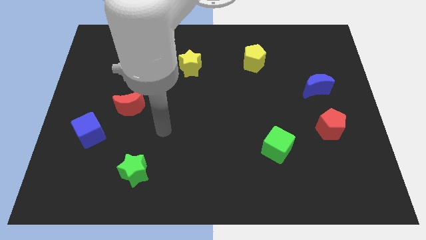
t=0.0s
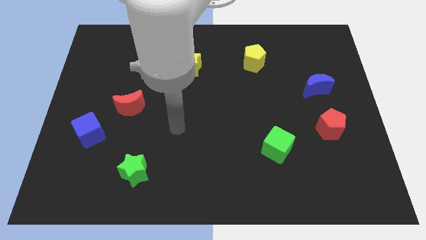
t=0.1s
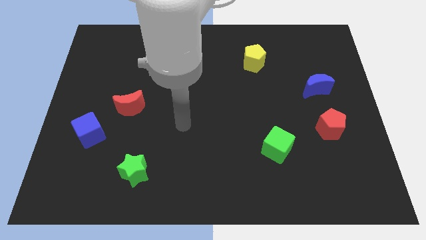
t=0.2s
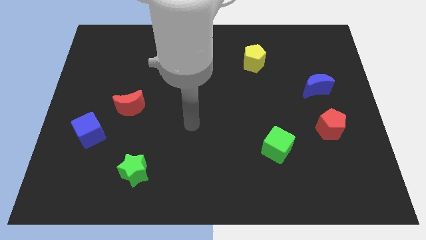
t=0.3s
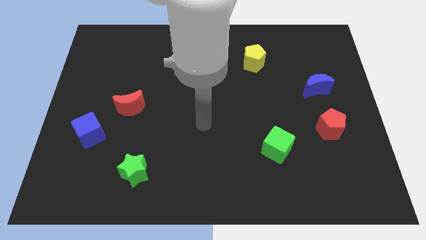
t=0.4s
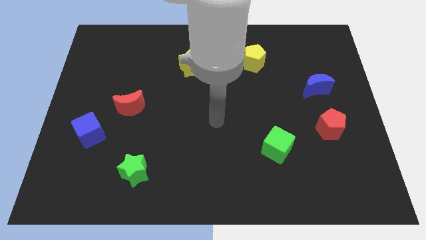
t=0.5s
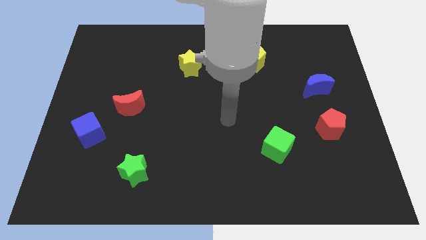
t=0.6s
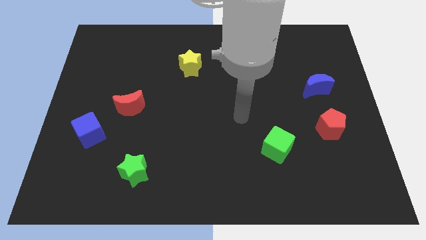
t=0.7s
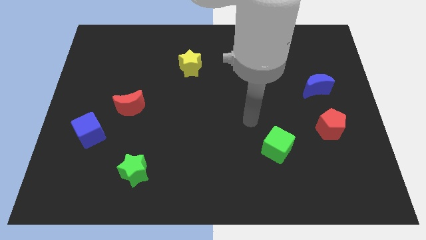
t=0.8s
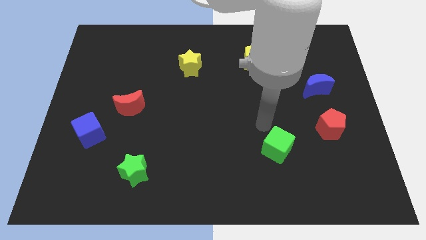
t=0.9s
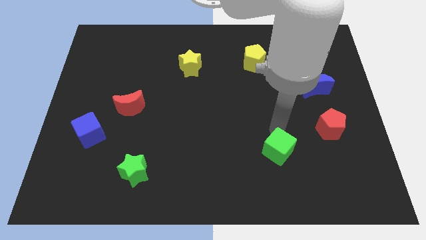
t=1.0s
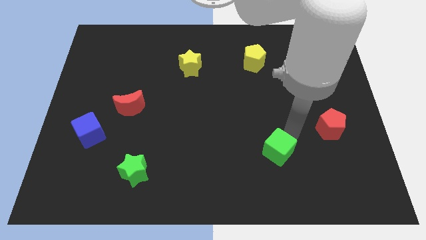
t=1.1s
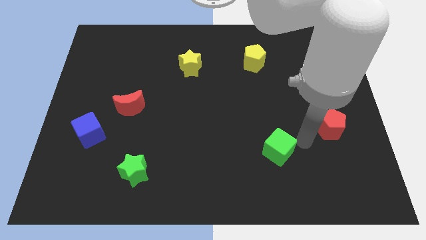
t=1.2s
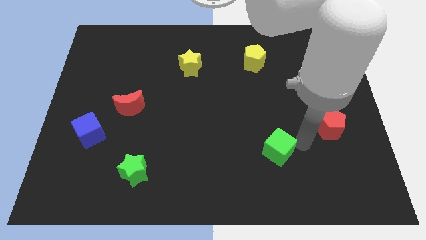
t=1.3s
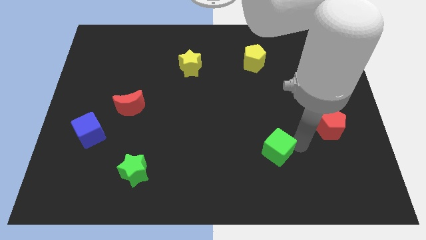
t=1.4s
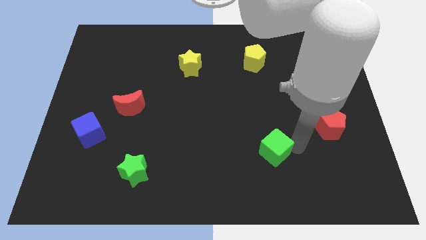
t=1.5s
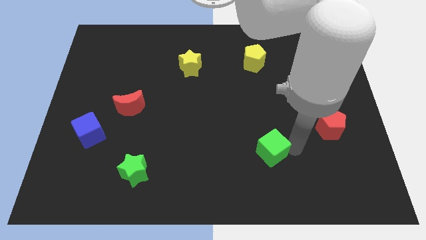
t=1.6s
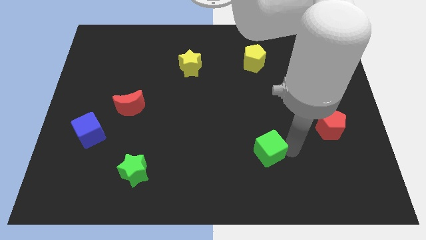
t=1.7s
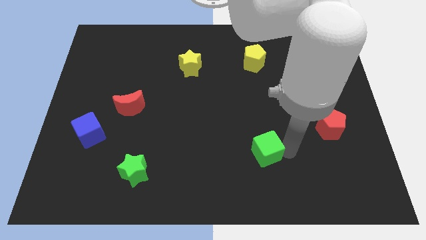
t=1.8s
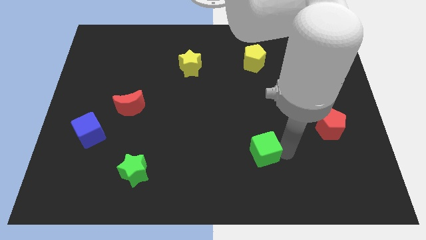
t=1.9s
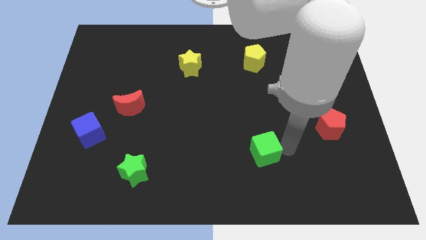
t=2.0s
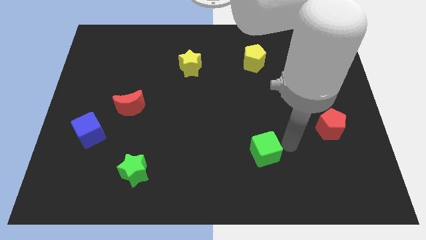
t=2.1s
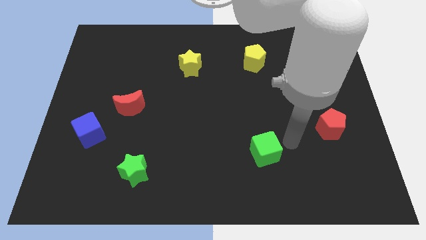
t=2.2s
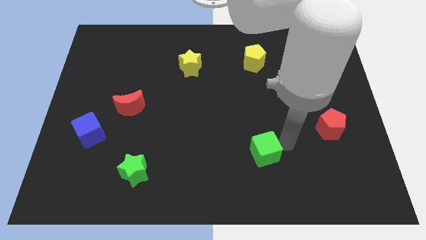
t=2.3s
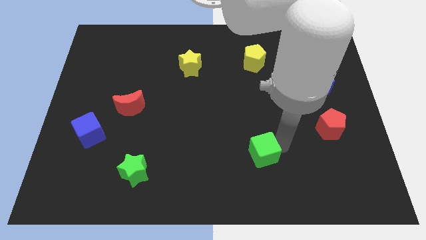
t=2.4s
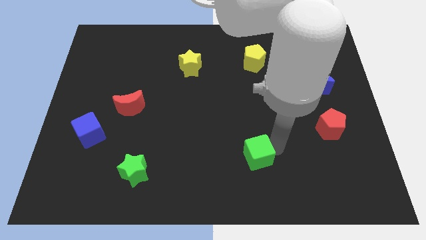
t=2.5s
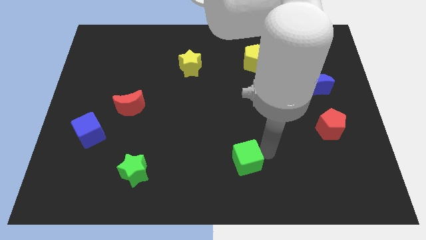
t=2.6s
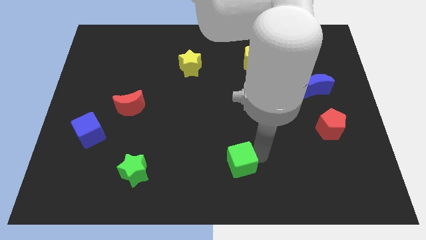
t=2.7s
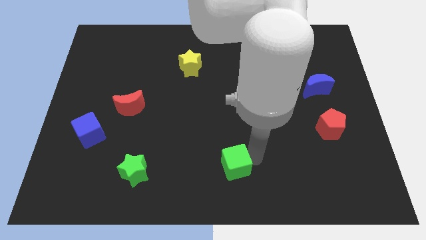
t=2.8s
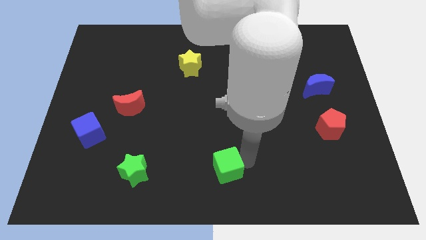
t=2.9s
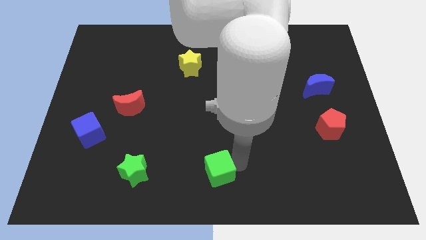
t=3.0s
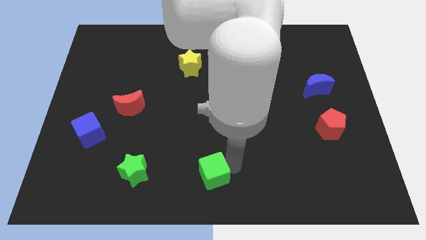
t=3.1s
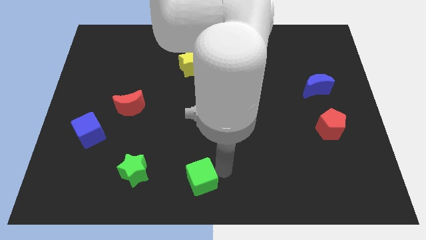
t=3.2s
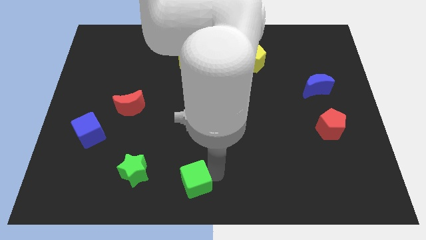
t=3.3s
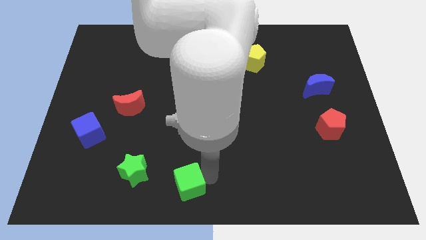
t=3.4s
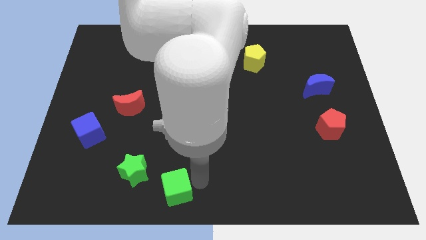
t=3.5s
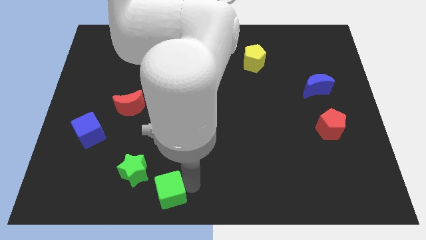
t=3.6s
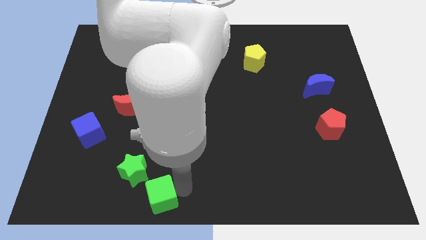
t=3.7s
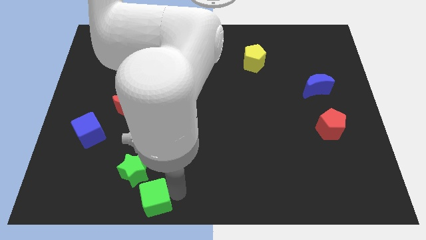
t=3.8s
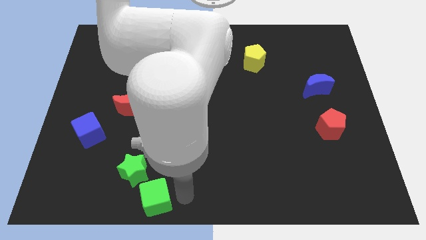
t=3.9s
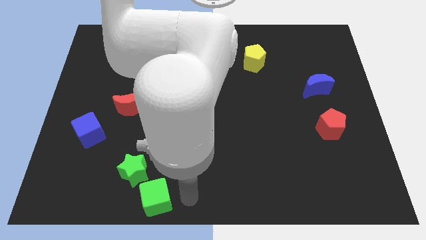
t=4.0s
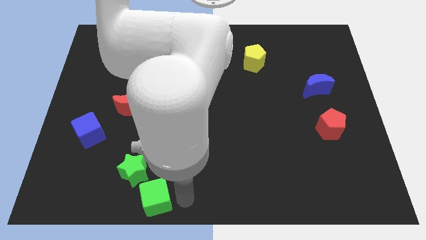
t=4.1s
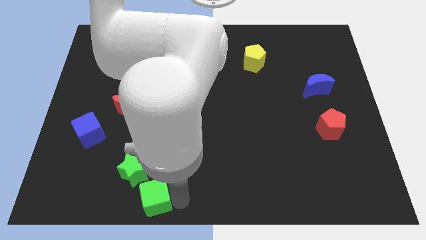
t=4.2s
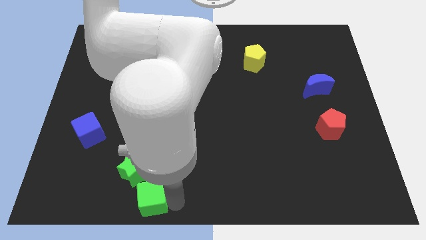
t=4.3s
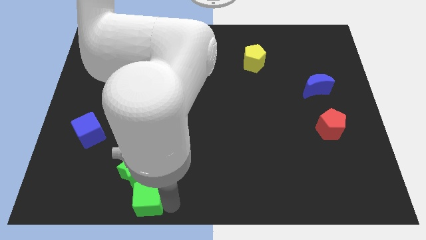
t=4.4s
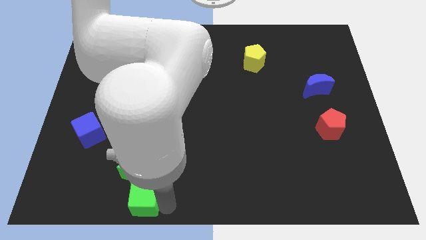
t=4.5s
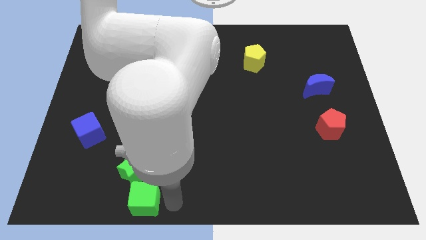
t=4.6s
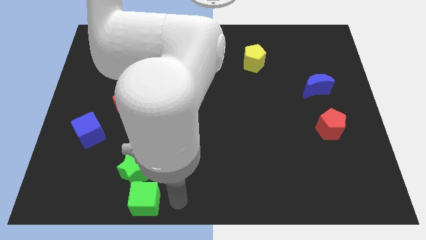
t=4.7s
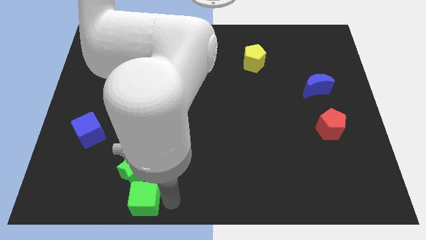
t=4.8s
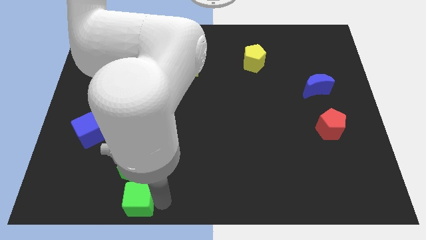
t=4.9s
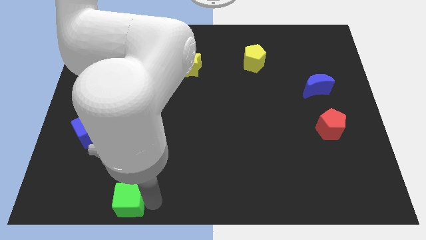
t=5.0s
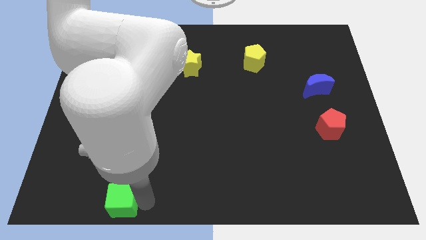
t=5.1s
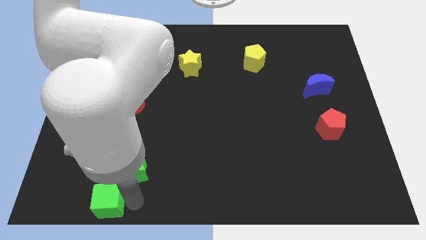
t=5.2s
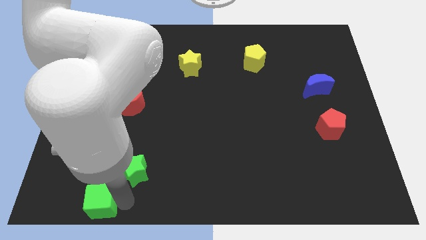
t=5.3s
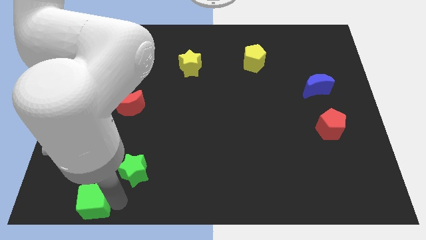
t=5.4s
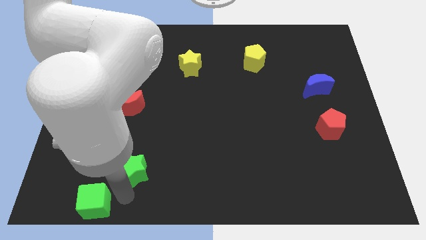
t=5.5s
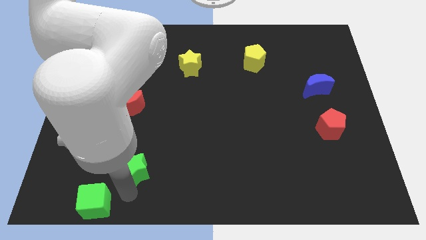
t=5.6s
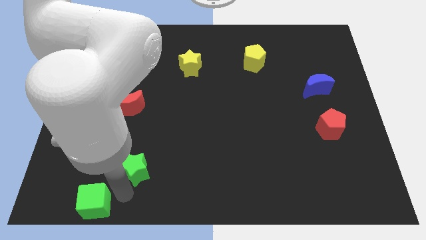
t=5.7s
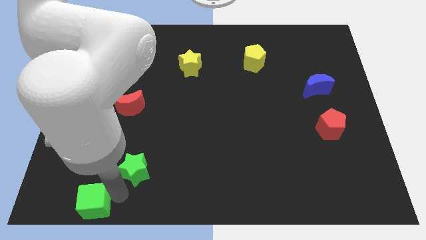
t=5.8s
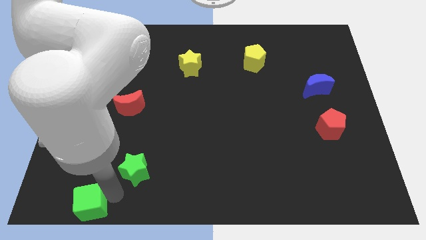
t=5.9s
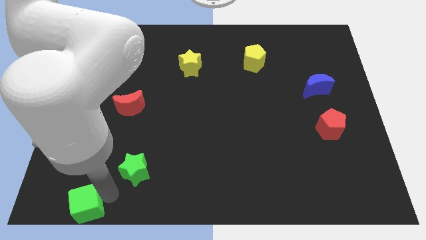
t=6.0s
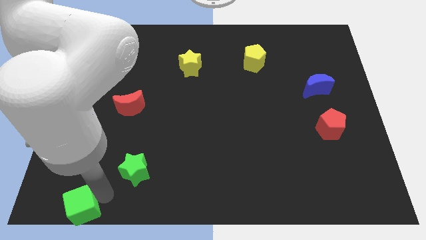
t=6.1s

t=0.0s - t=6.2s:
slide the green cube to the lower left corner
